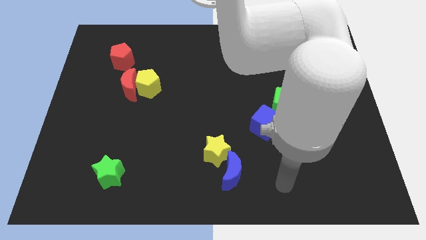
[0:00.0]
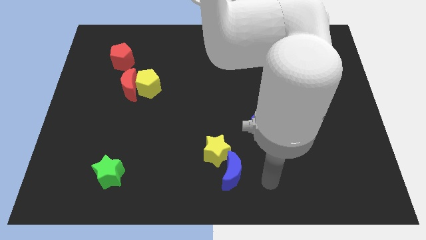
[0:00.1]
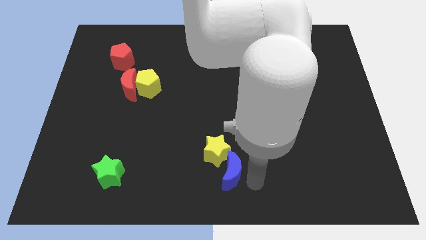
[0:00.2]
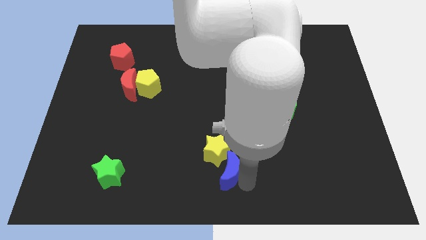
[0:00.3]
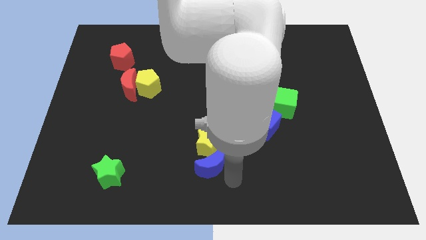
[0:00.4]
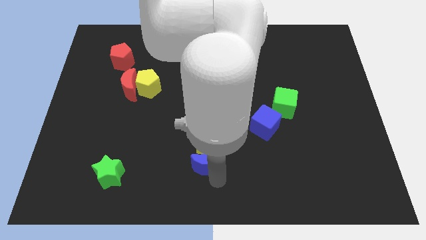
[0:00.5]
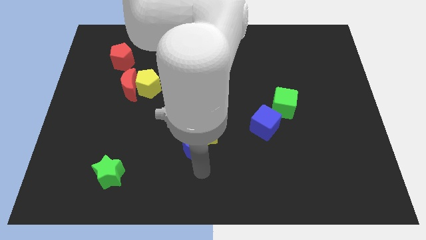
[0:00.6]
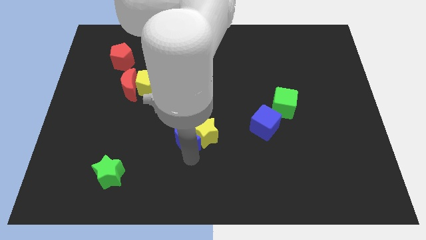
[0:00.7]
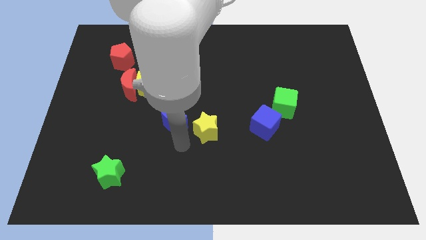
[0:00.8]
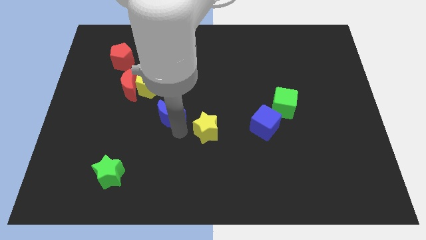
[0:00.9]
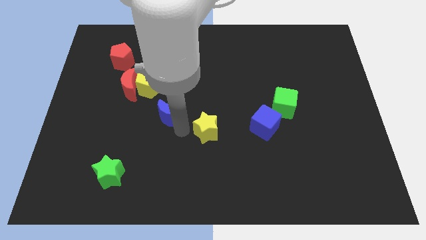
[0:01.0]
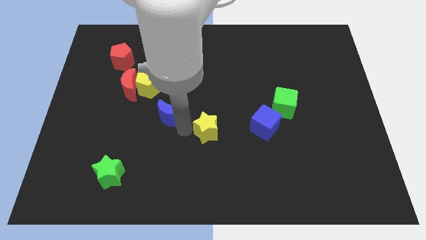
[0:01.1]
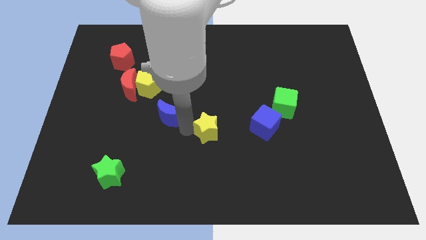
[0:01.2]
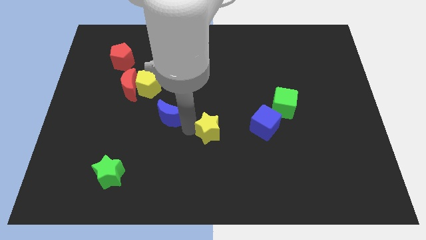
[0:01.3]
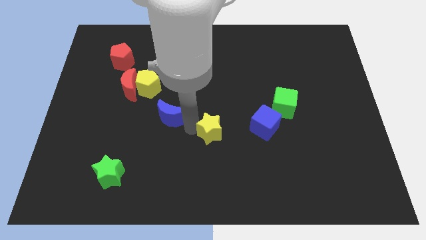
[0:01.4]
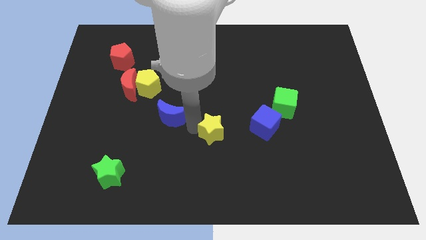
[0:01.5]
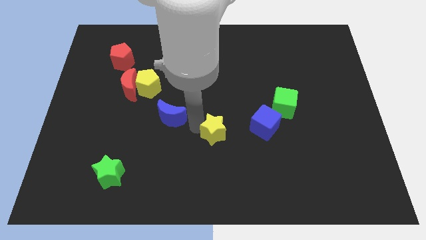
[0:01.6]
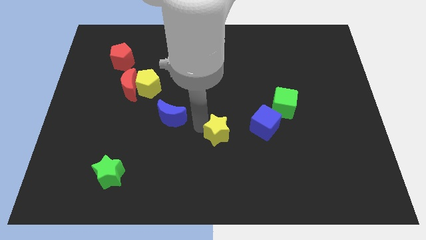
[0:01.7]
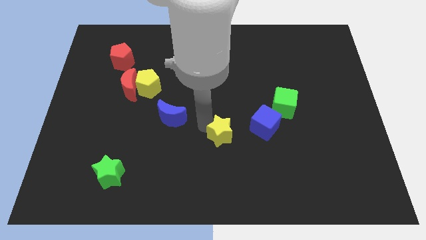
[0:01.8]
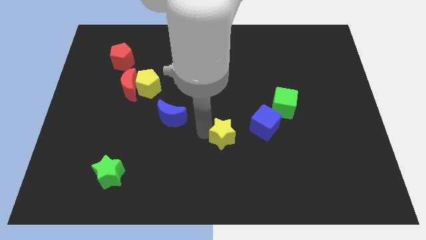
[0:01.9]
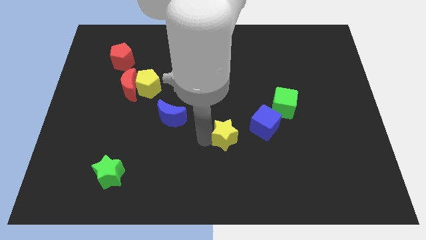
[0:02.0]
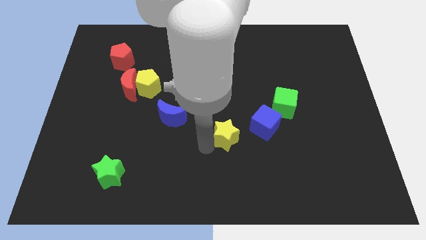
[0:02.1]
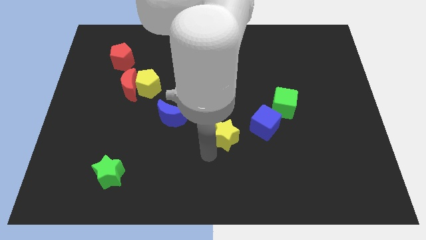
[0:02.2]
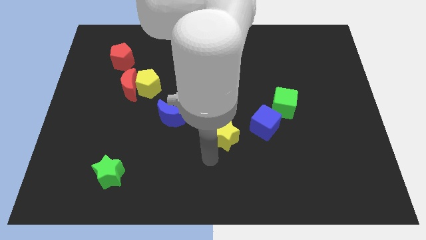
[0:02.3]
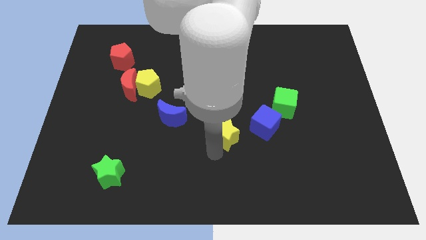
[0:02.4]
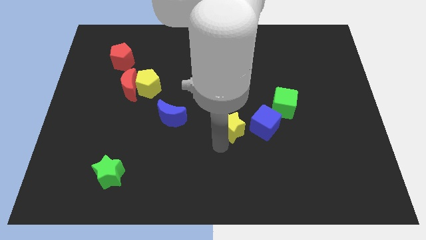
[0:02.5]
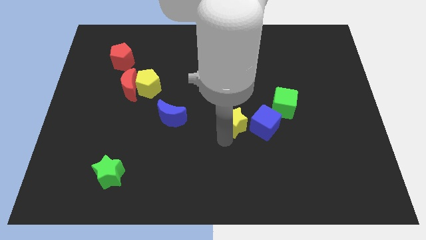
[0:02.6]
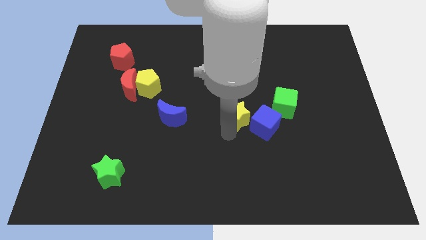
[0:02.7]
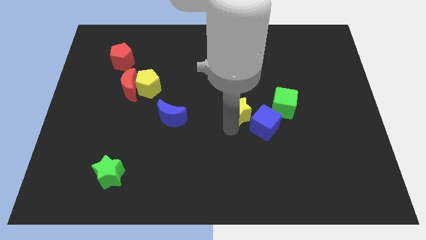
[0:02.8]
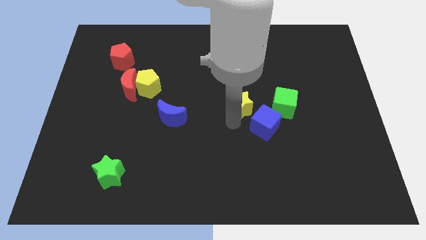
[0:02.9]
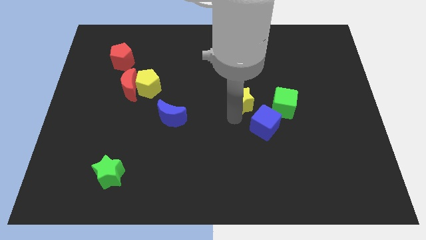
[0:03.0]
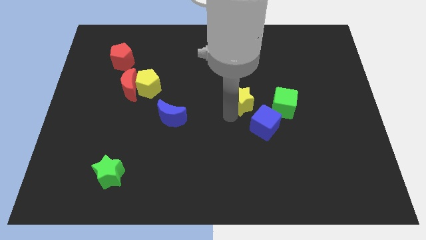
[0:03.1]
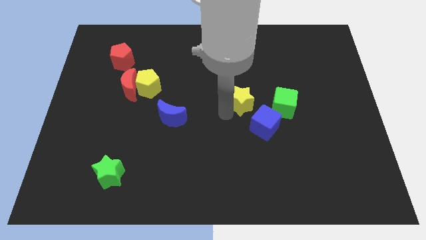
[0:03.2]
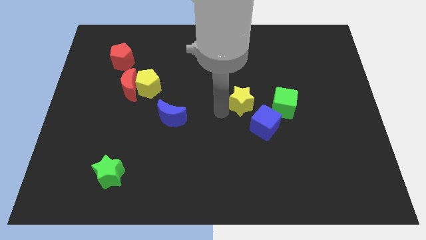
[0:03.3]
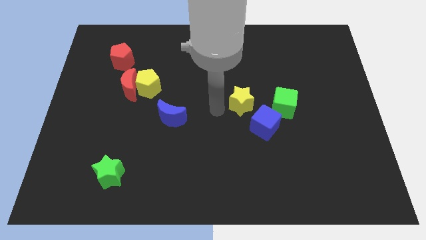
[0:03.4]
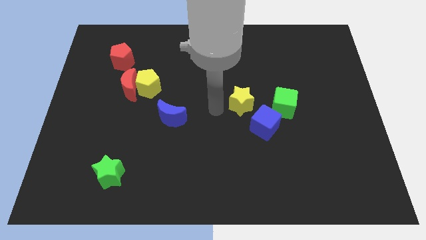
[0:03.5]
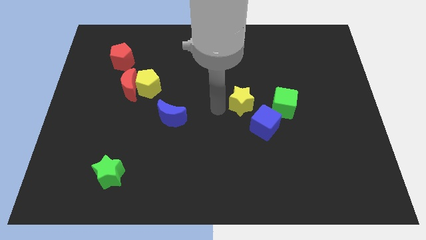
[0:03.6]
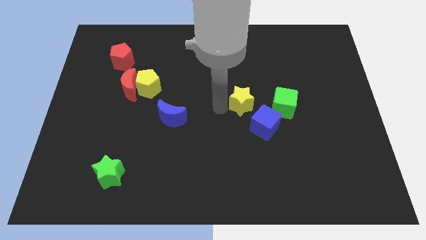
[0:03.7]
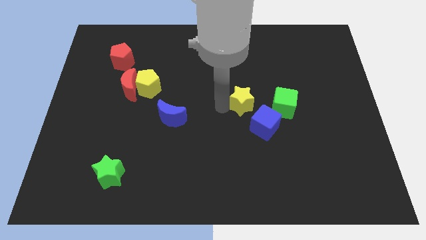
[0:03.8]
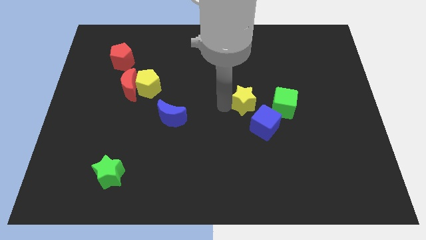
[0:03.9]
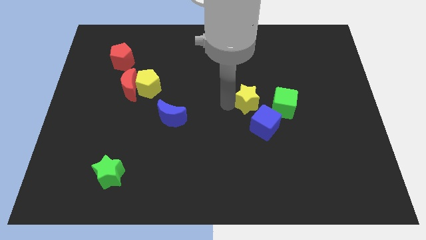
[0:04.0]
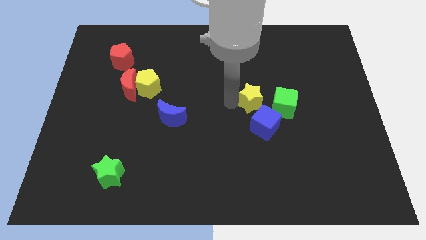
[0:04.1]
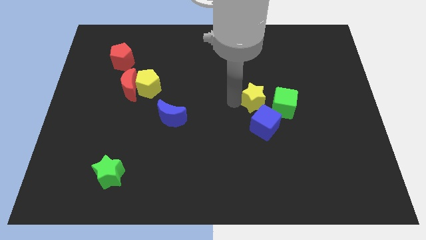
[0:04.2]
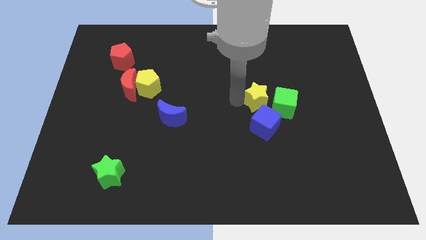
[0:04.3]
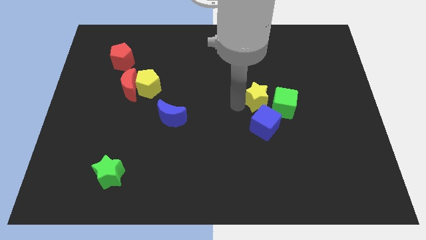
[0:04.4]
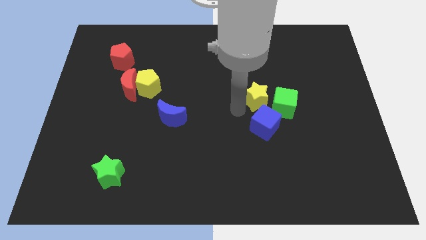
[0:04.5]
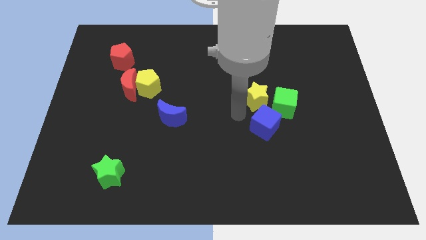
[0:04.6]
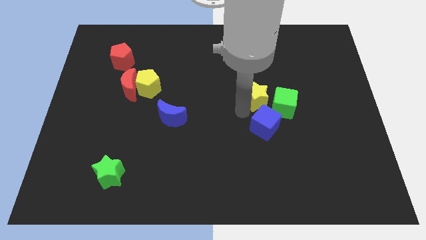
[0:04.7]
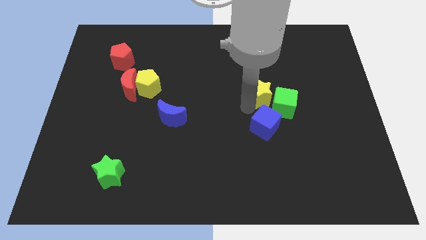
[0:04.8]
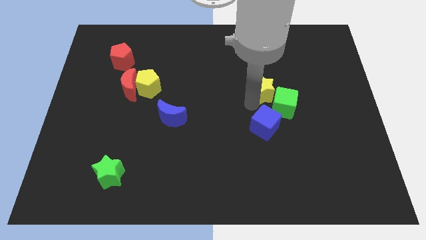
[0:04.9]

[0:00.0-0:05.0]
put the yellow star to the top of the green cube

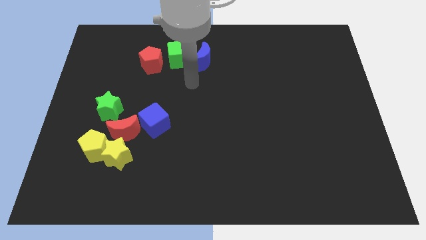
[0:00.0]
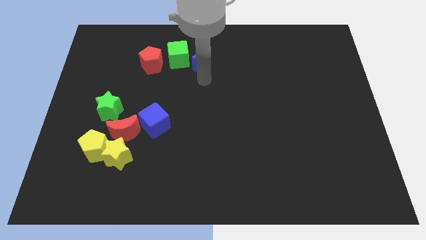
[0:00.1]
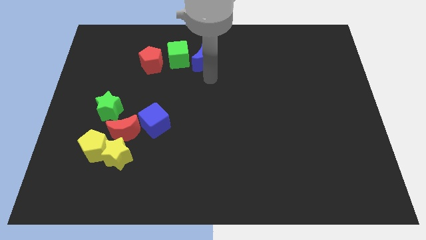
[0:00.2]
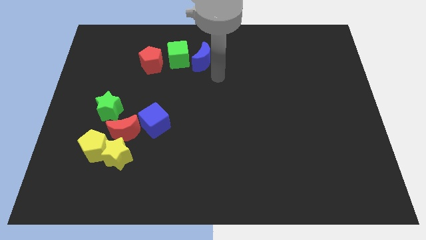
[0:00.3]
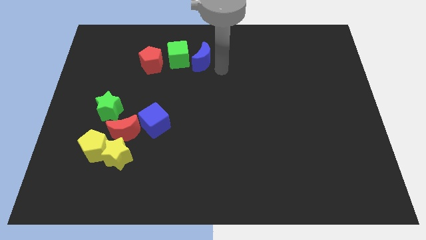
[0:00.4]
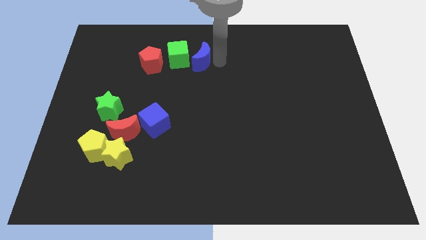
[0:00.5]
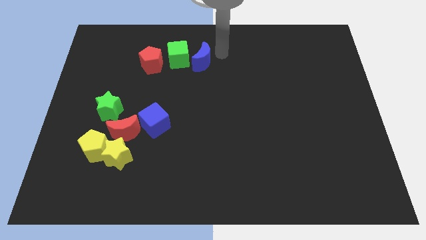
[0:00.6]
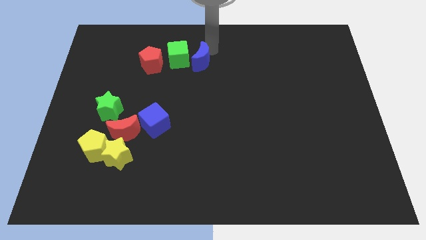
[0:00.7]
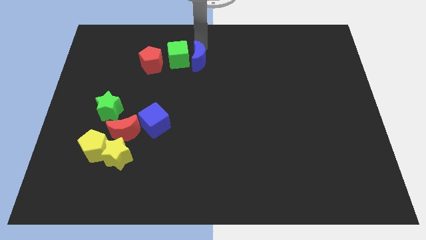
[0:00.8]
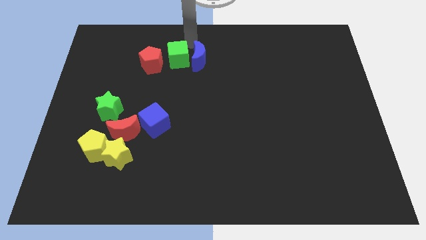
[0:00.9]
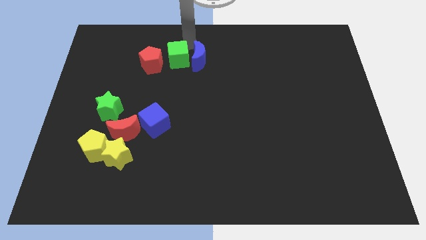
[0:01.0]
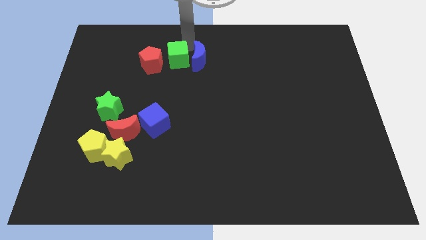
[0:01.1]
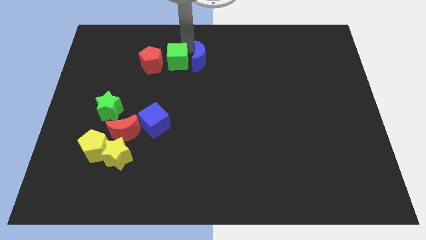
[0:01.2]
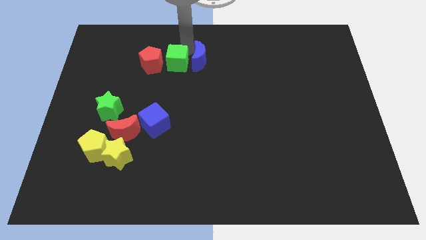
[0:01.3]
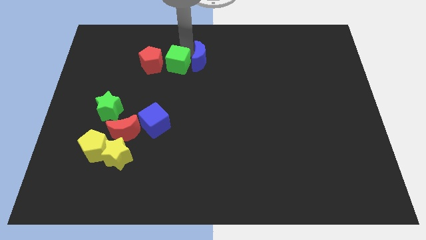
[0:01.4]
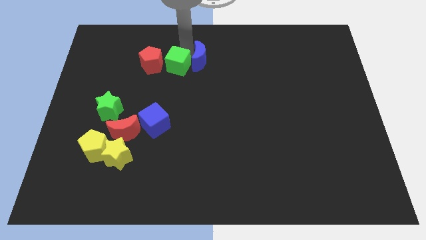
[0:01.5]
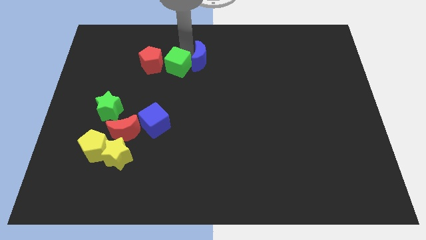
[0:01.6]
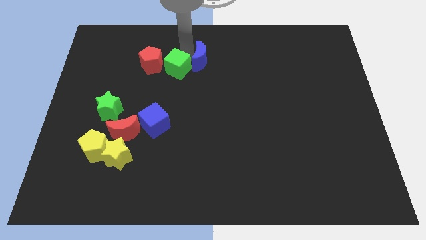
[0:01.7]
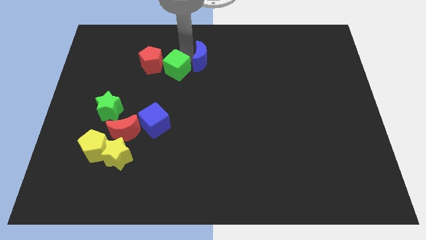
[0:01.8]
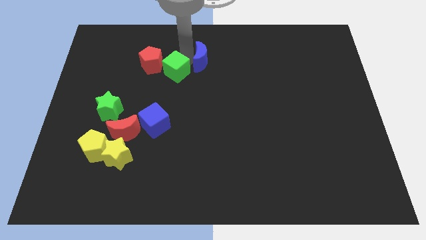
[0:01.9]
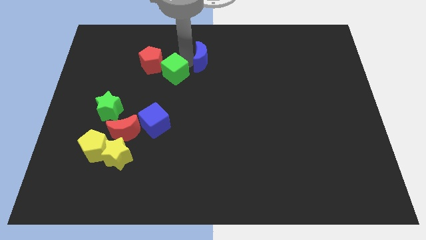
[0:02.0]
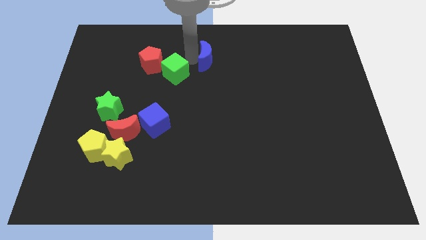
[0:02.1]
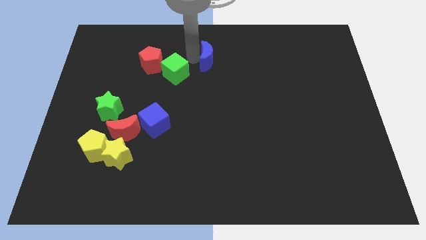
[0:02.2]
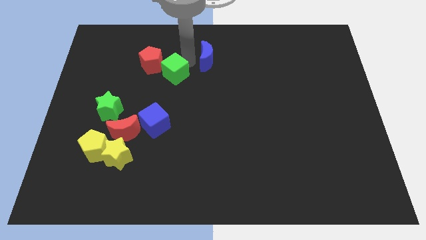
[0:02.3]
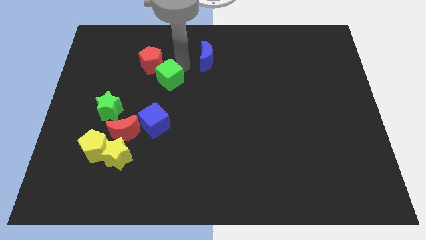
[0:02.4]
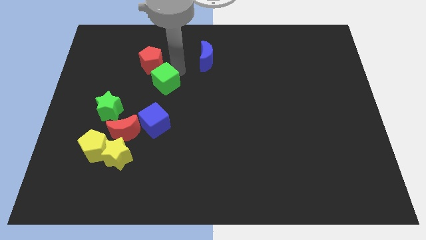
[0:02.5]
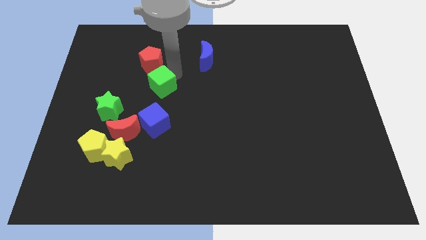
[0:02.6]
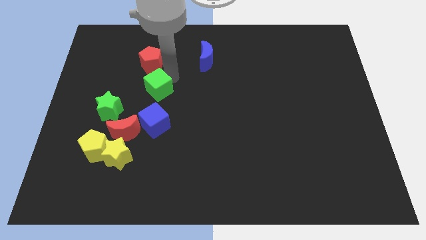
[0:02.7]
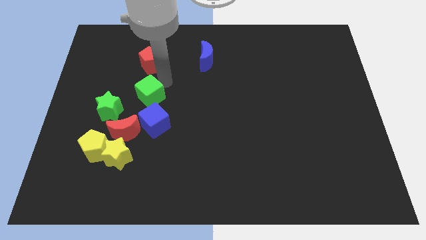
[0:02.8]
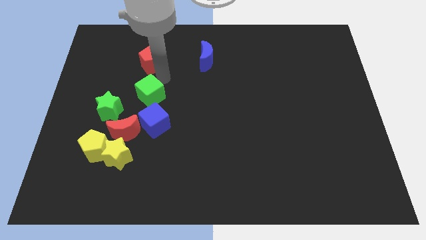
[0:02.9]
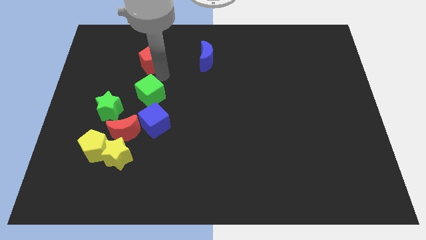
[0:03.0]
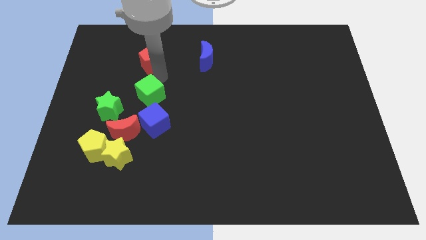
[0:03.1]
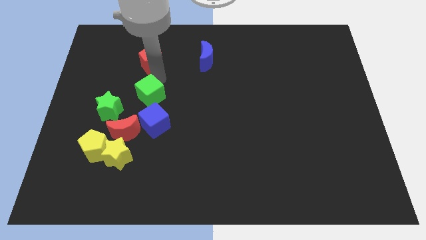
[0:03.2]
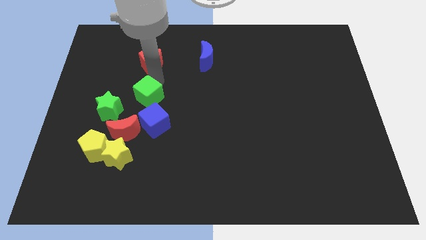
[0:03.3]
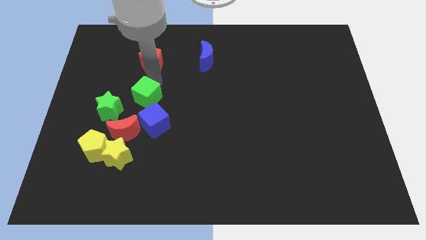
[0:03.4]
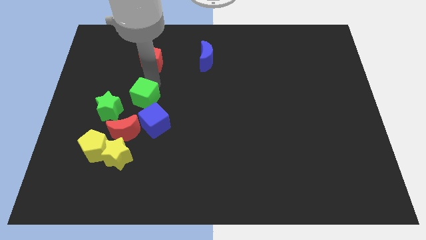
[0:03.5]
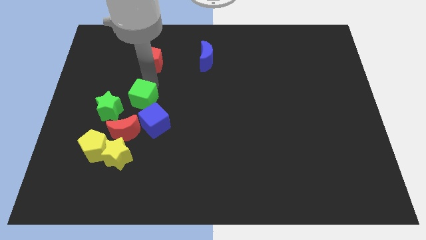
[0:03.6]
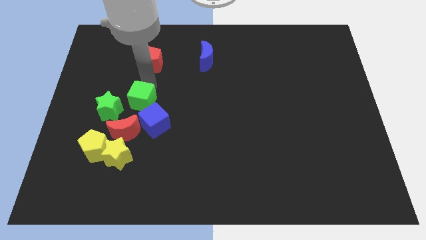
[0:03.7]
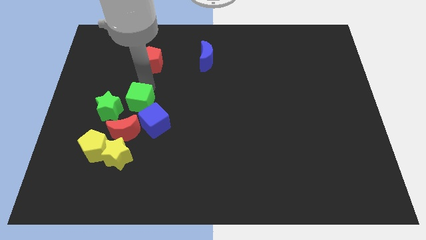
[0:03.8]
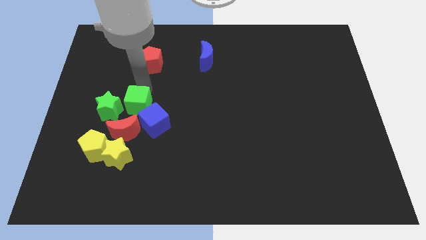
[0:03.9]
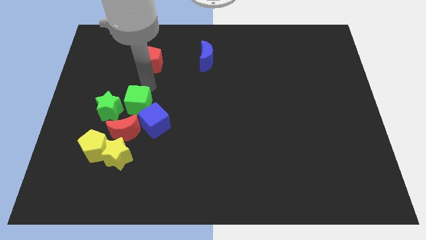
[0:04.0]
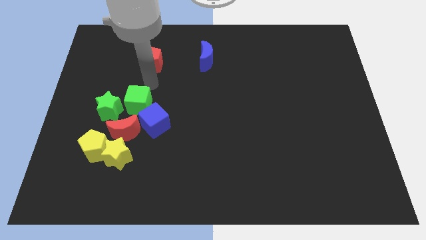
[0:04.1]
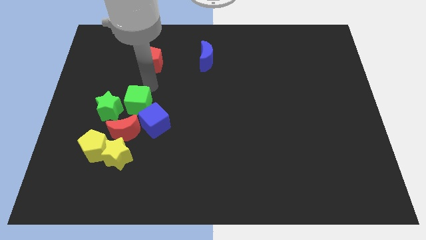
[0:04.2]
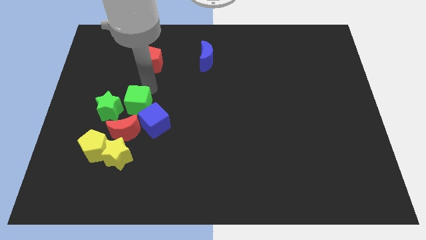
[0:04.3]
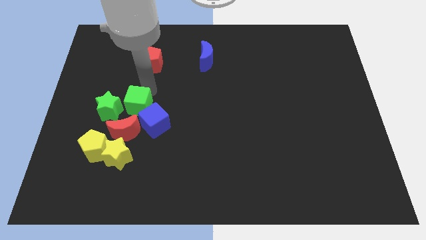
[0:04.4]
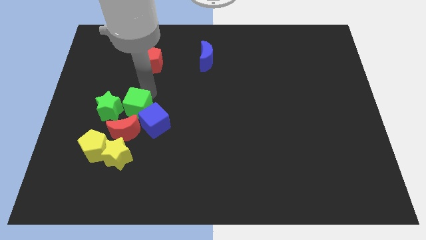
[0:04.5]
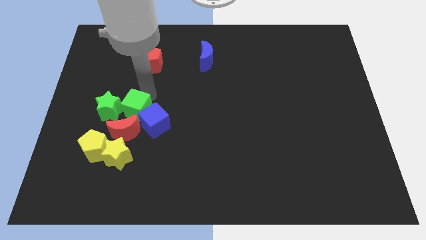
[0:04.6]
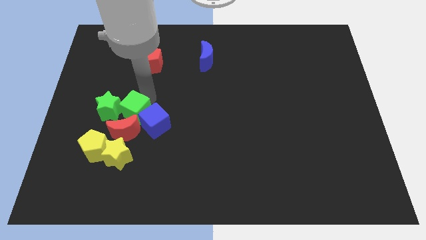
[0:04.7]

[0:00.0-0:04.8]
slide the green cube to the top right of the yellow pentagon
